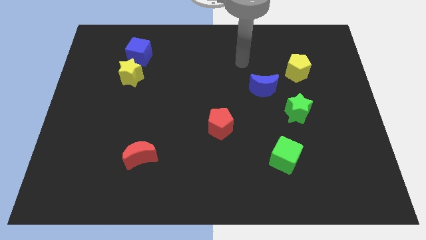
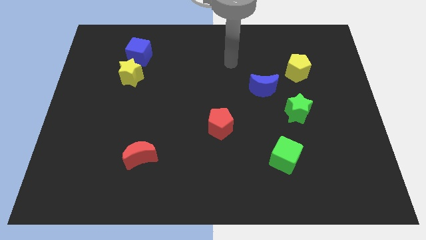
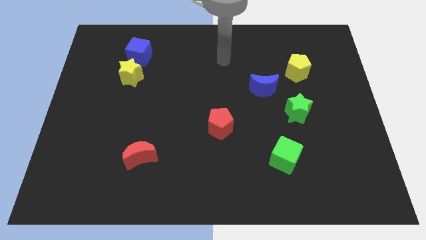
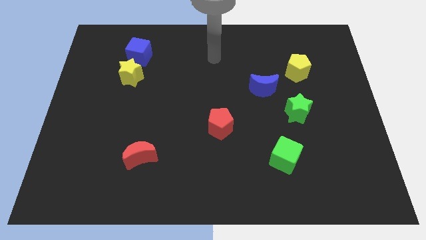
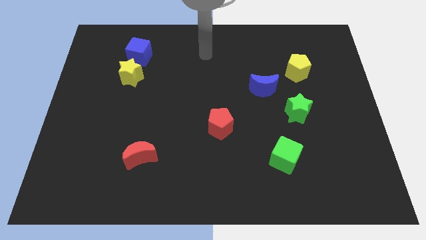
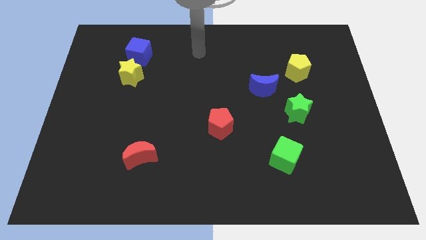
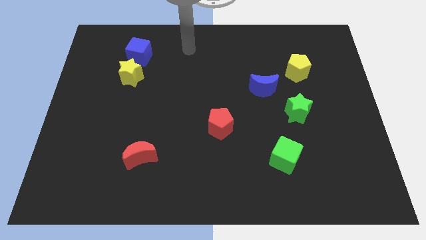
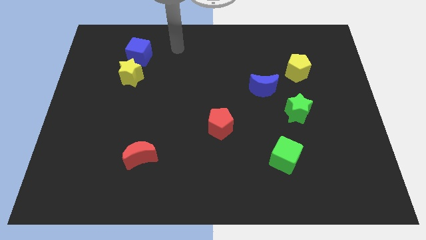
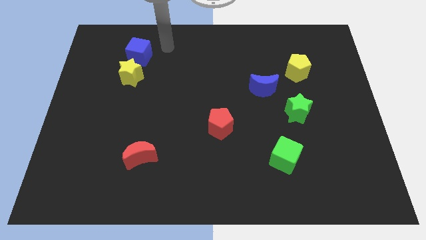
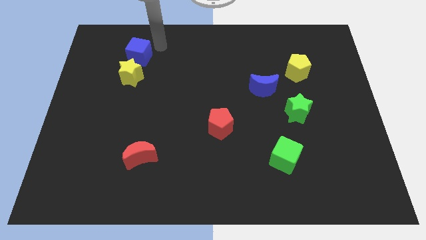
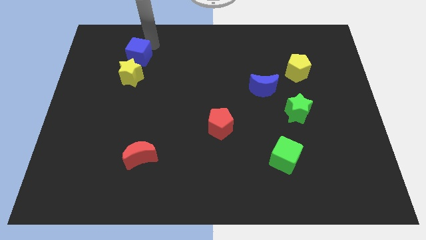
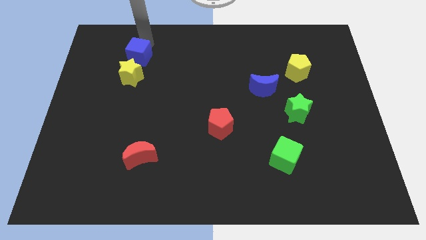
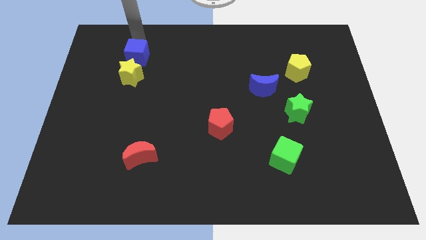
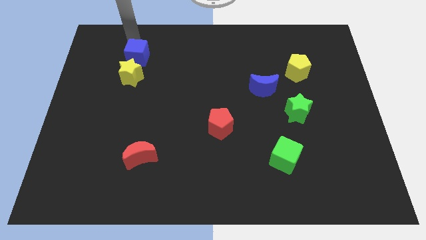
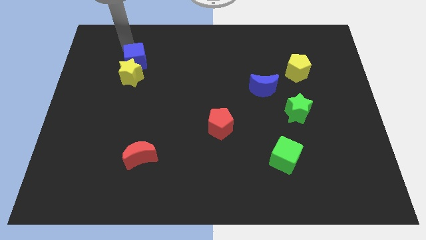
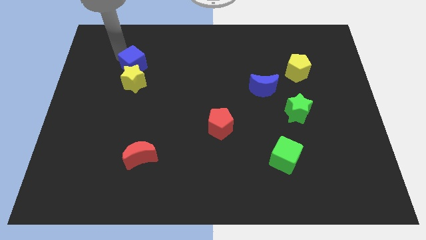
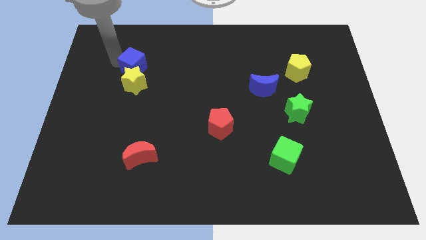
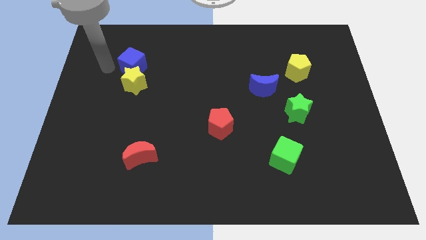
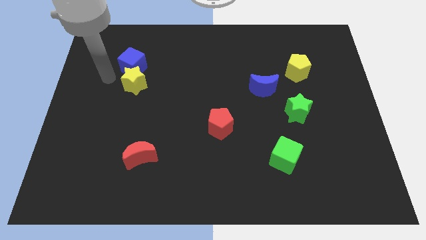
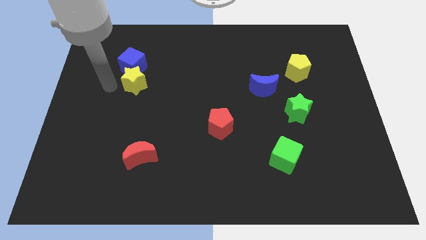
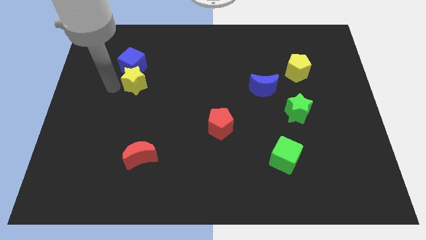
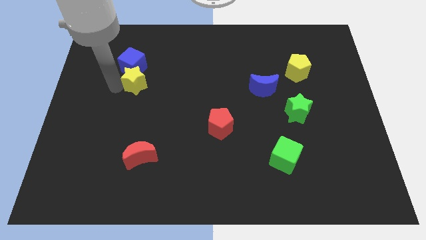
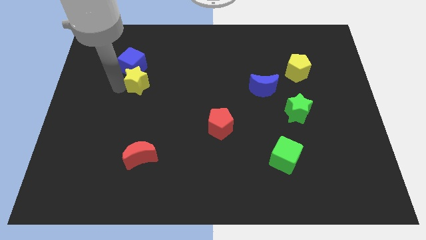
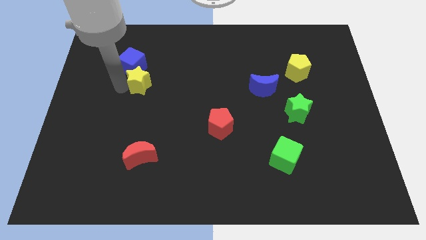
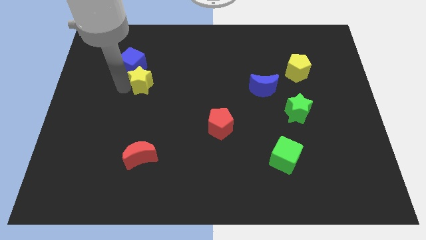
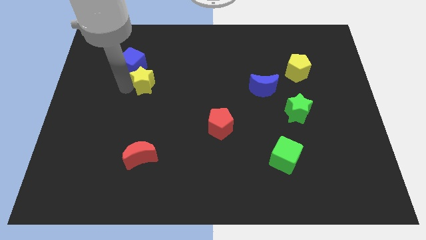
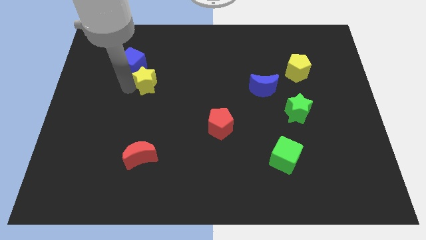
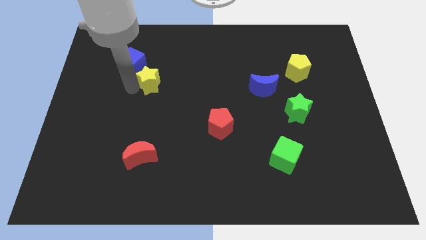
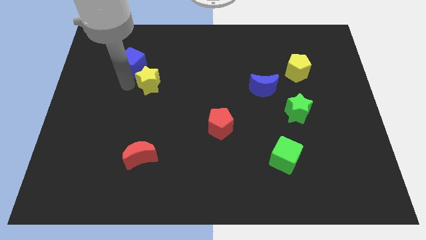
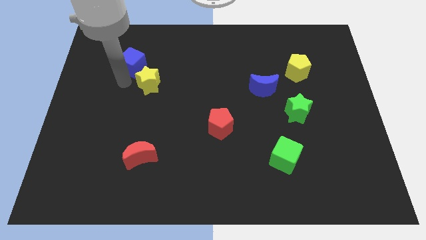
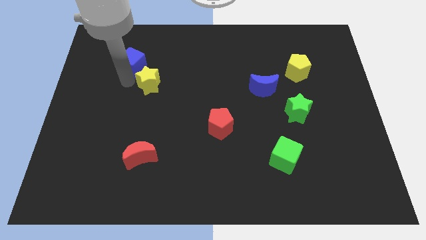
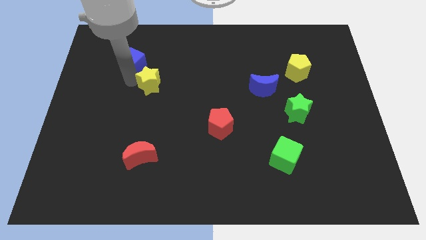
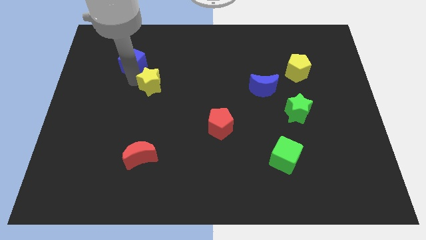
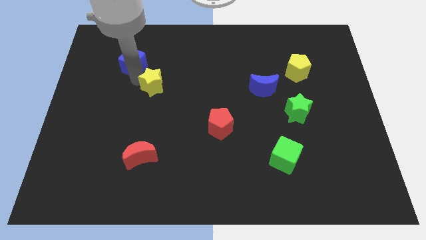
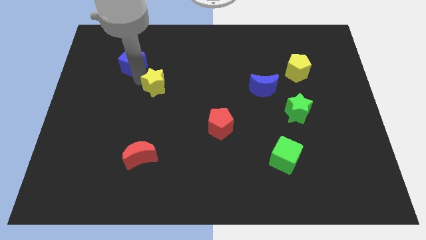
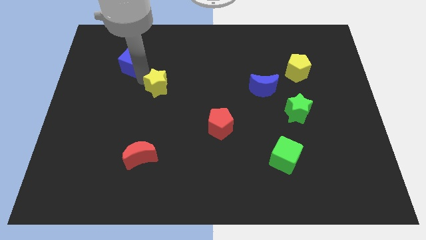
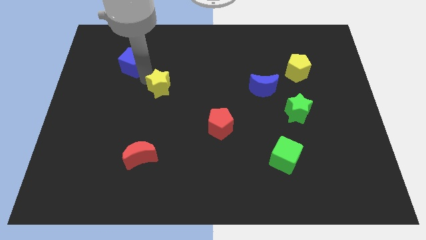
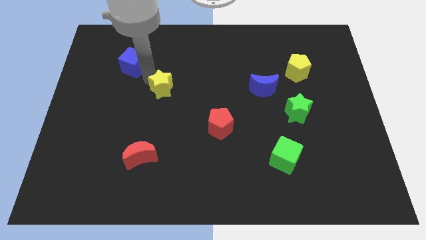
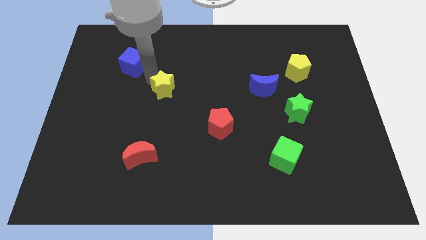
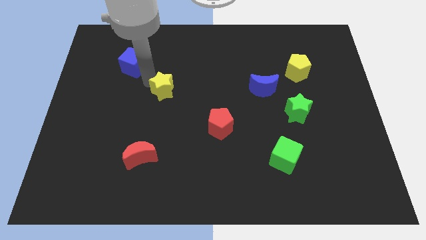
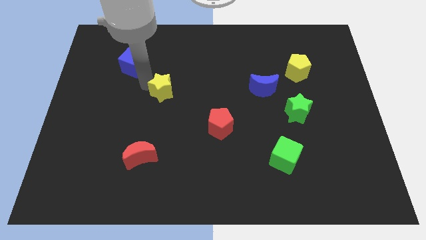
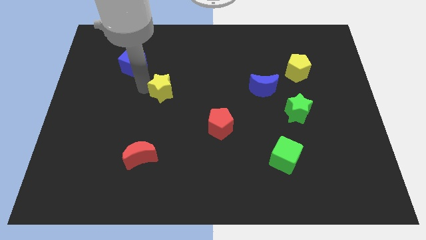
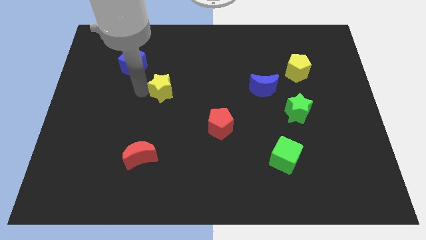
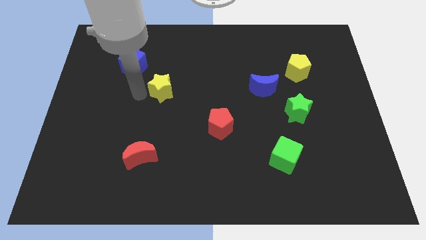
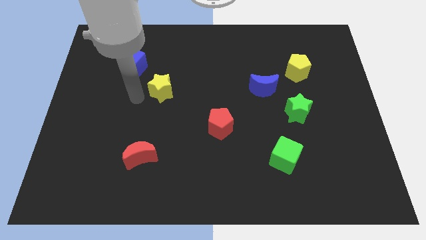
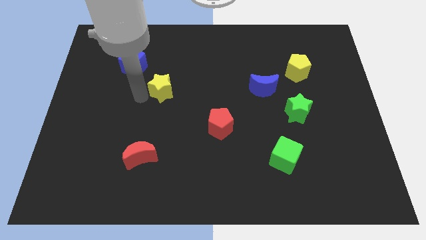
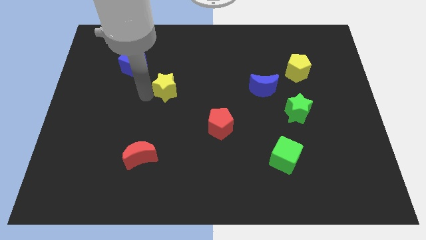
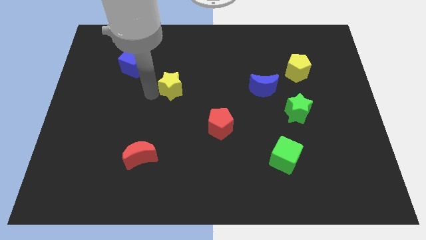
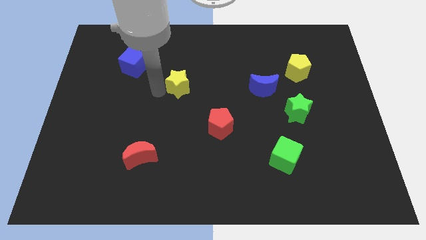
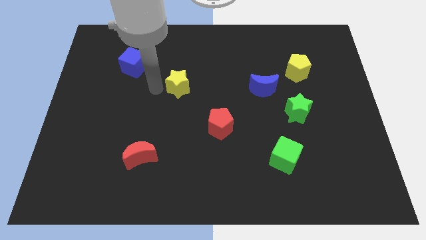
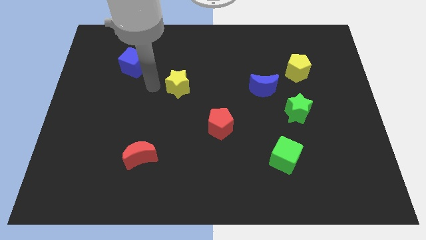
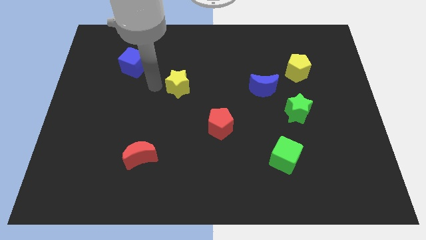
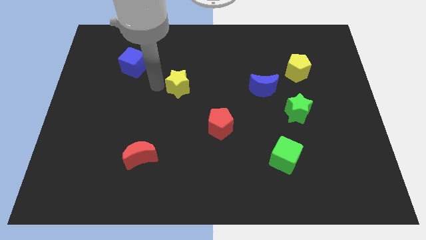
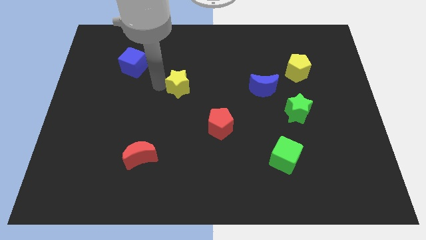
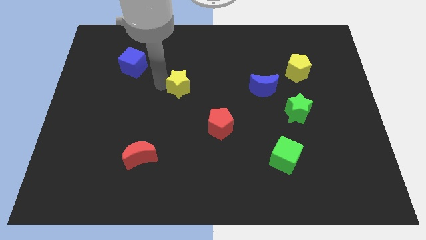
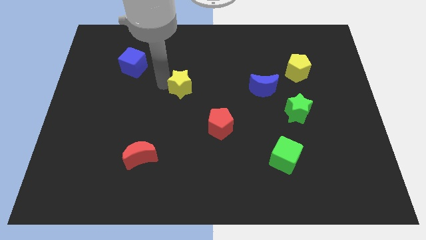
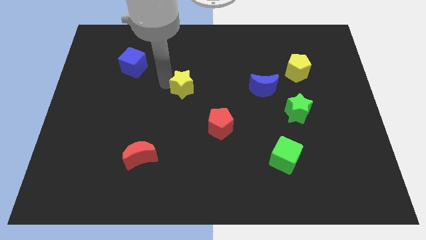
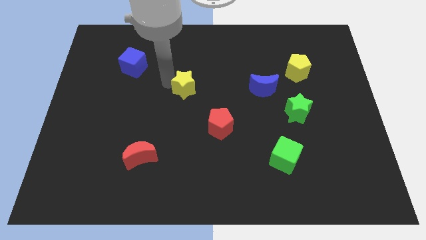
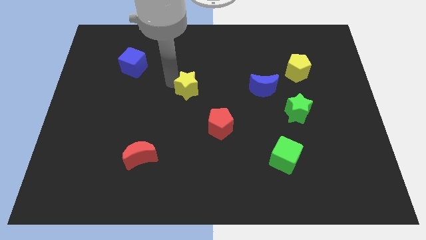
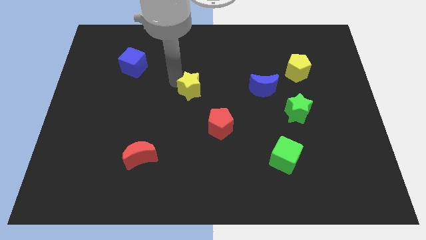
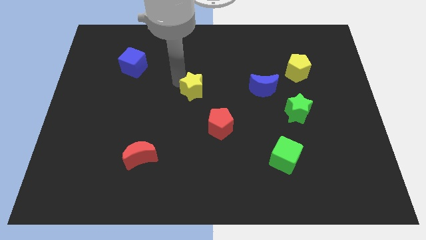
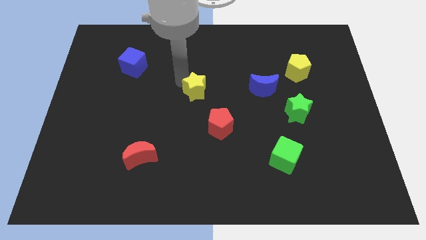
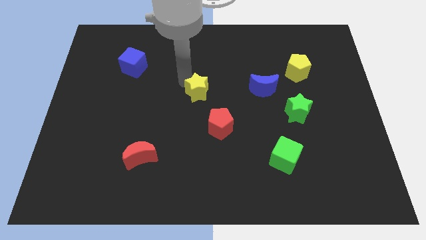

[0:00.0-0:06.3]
move the yellow star just left of the blue moon

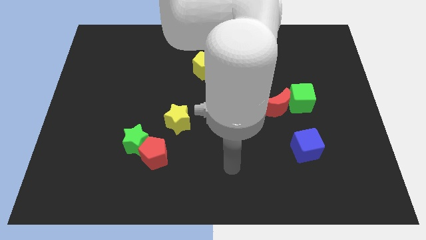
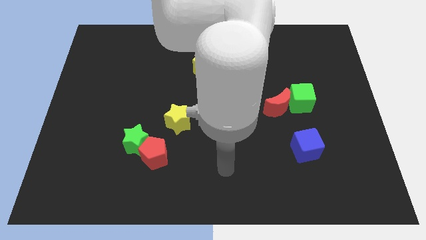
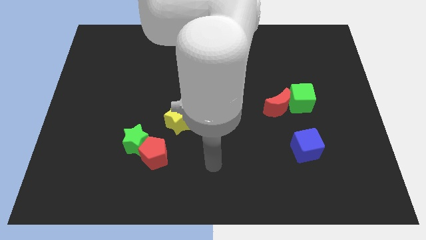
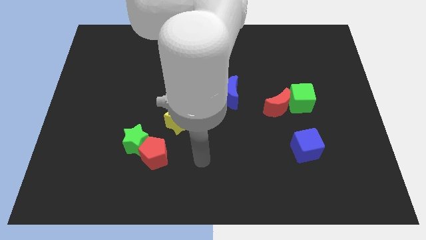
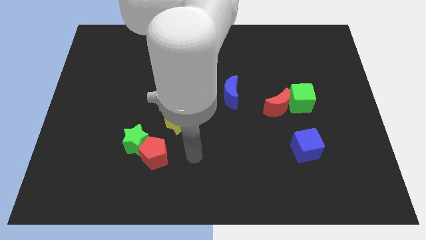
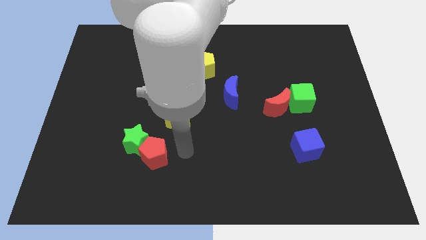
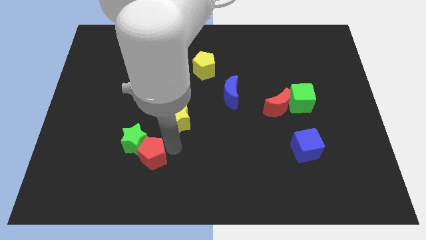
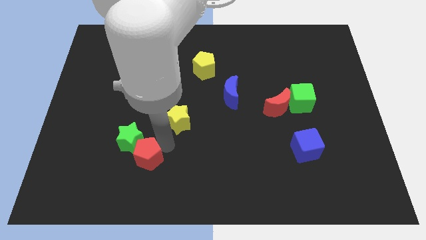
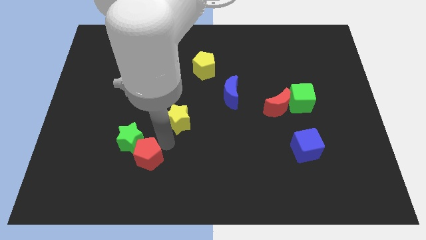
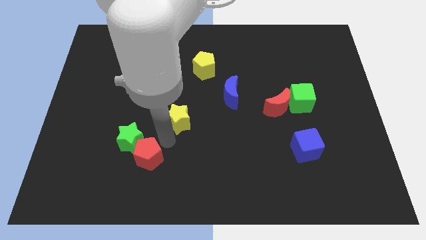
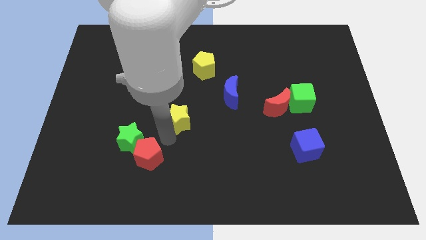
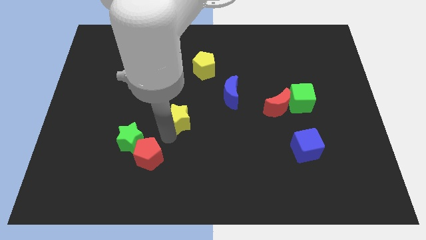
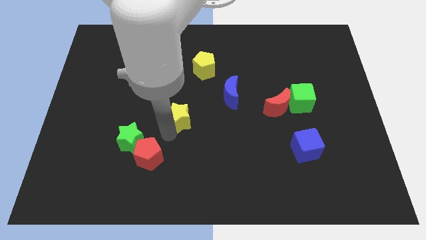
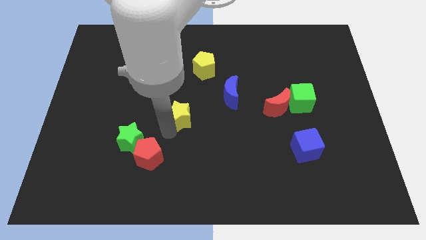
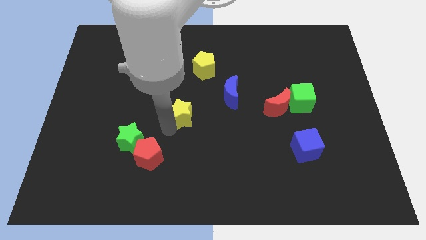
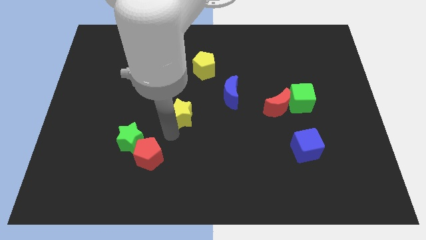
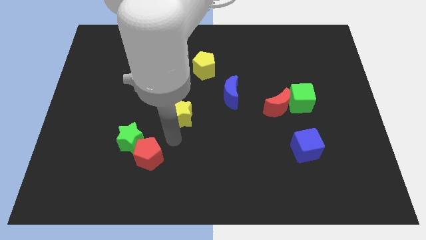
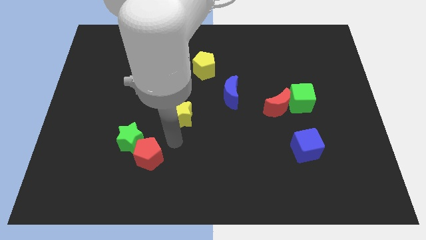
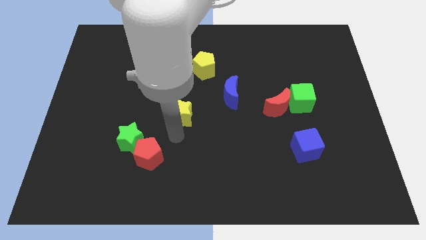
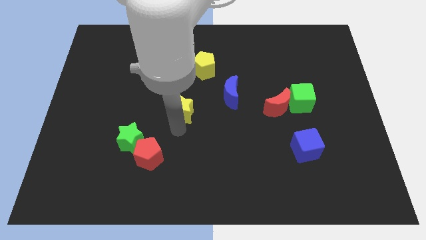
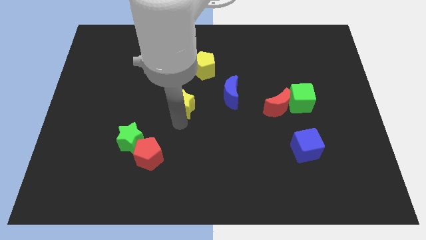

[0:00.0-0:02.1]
push the yellow star just left of the blue moon
